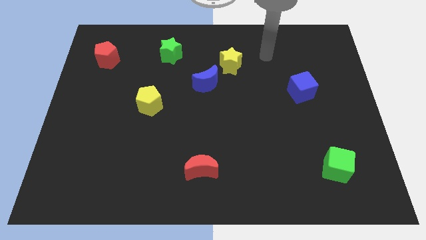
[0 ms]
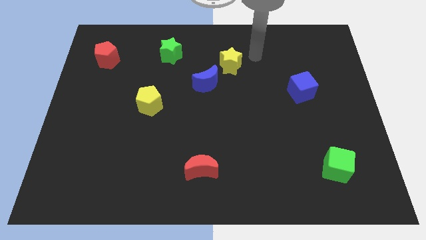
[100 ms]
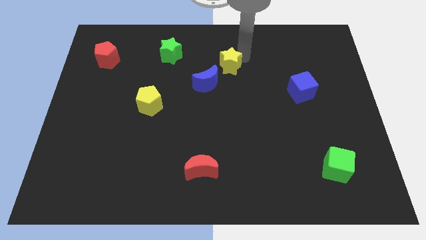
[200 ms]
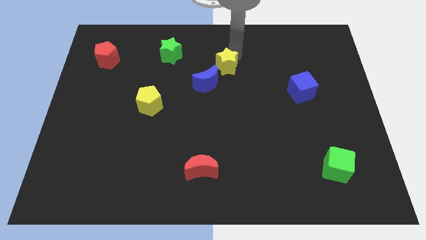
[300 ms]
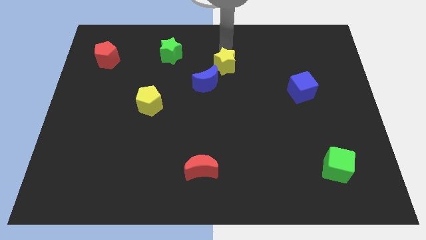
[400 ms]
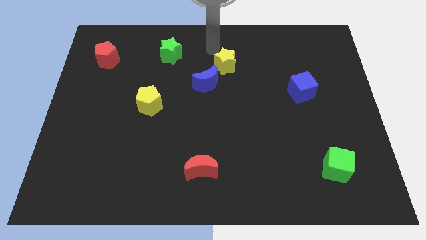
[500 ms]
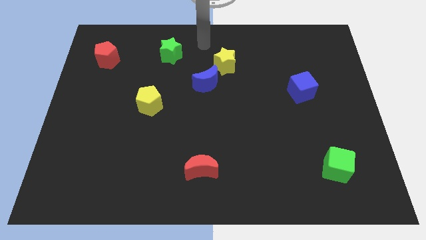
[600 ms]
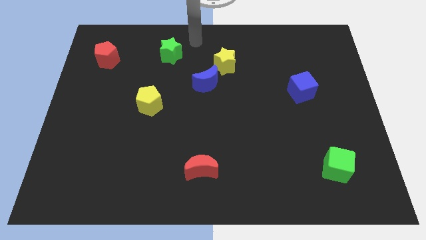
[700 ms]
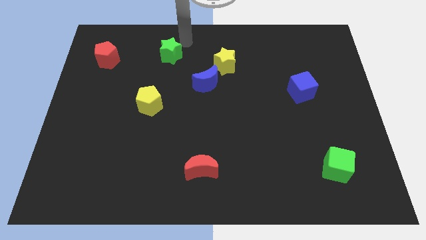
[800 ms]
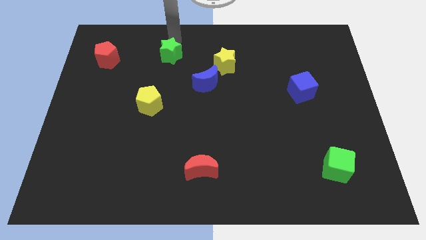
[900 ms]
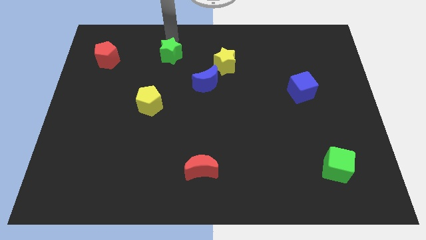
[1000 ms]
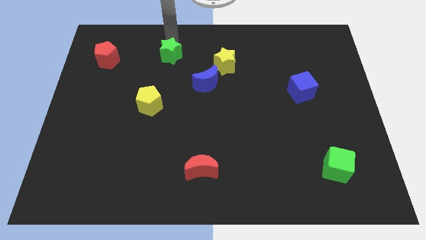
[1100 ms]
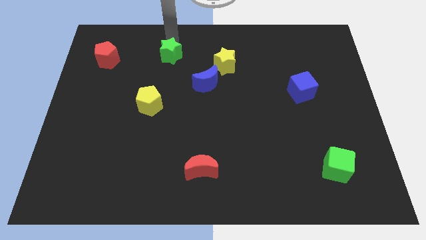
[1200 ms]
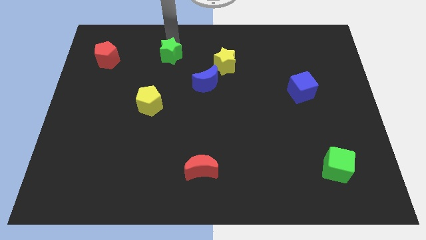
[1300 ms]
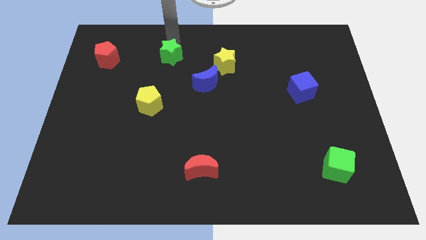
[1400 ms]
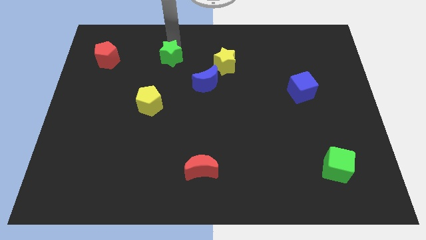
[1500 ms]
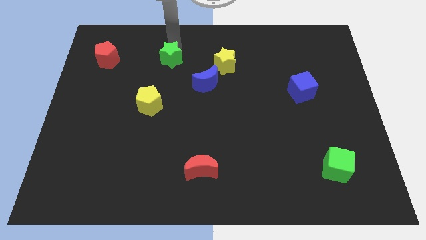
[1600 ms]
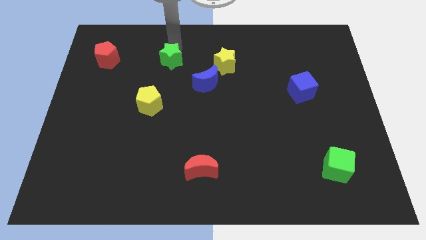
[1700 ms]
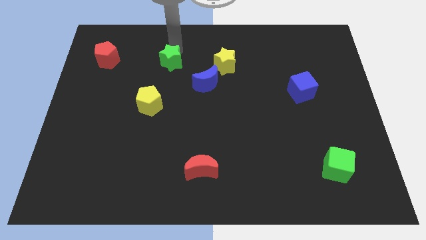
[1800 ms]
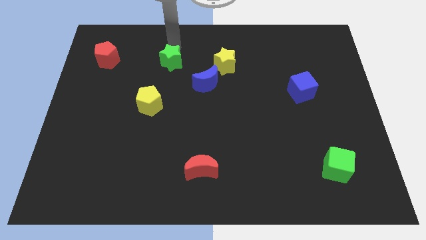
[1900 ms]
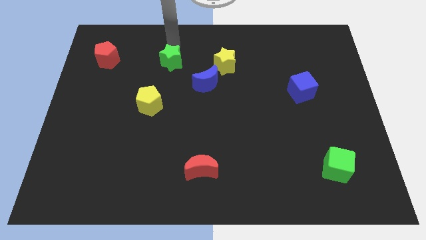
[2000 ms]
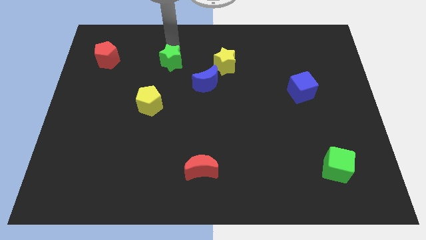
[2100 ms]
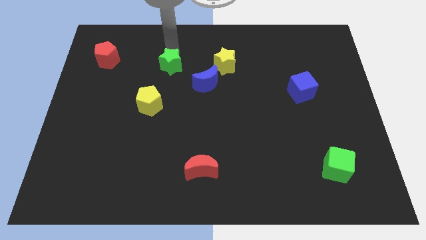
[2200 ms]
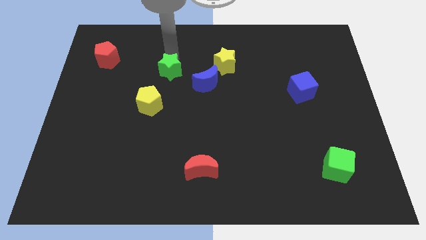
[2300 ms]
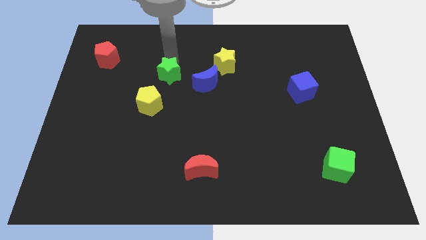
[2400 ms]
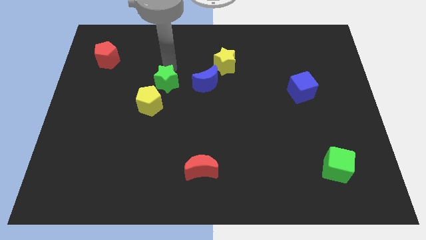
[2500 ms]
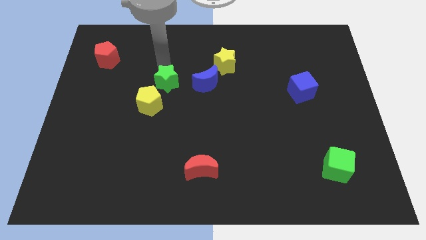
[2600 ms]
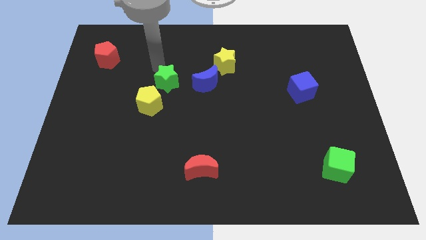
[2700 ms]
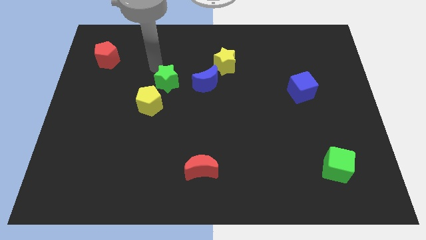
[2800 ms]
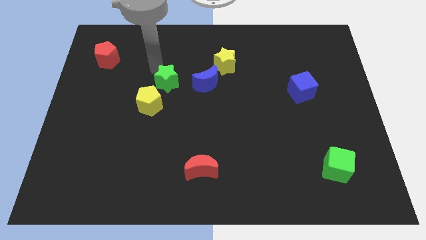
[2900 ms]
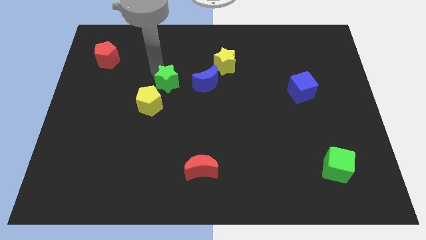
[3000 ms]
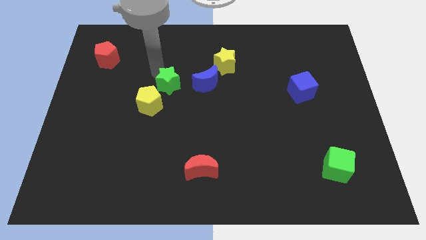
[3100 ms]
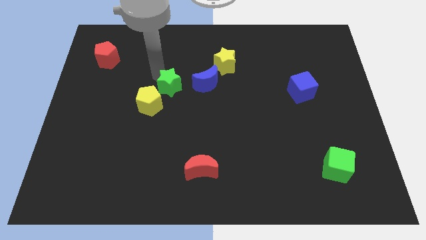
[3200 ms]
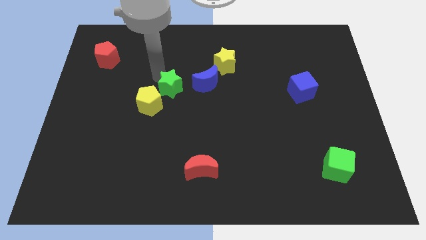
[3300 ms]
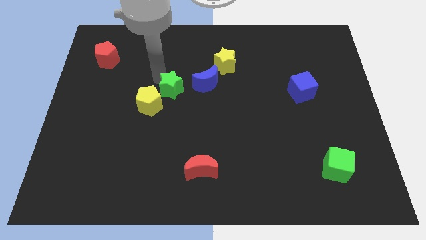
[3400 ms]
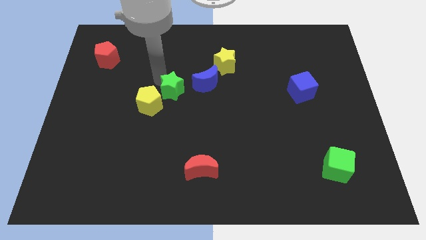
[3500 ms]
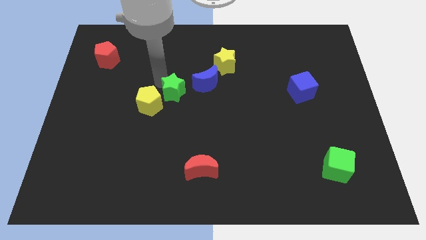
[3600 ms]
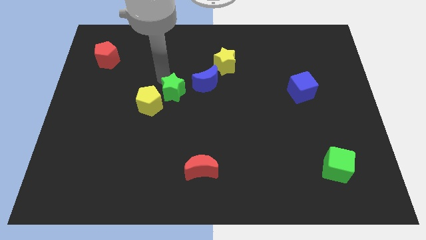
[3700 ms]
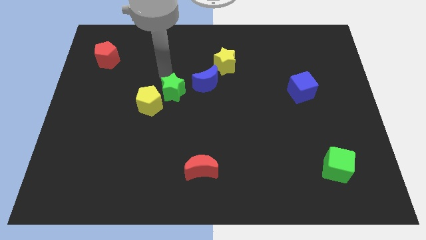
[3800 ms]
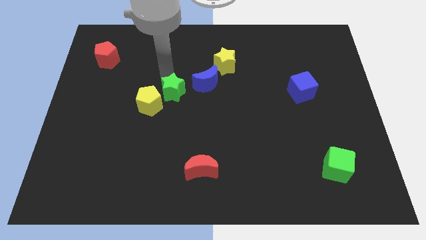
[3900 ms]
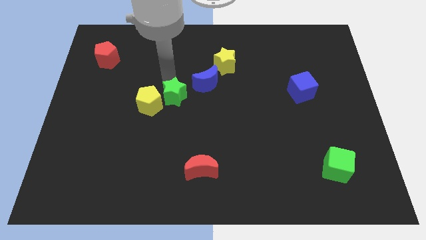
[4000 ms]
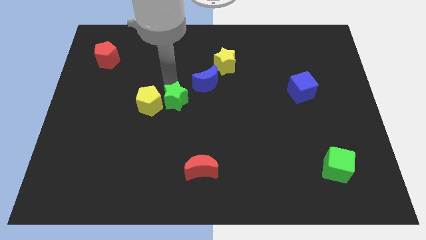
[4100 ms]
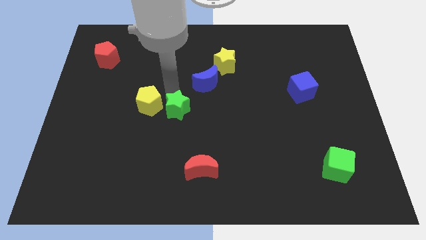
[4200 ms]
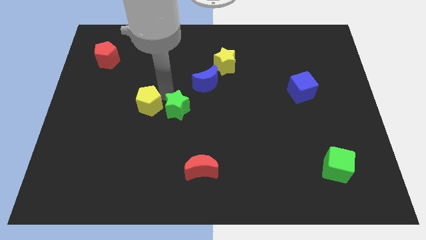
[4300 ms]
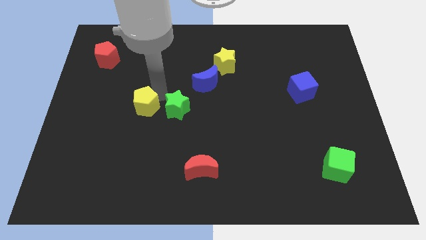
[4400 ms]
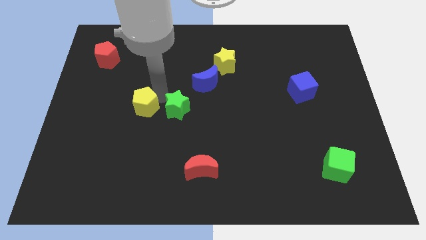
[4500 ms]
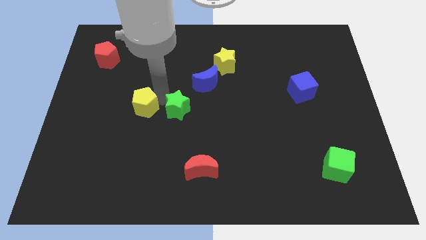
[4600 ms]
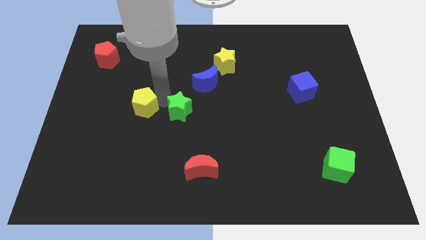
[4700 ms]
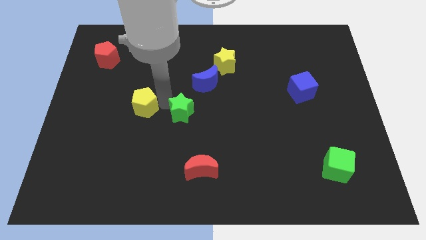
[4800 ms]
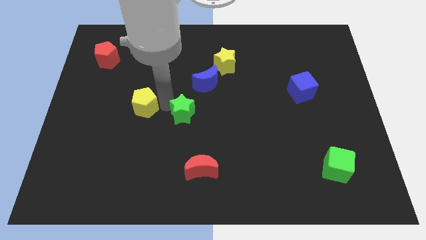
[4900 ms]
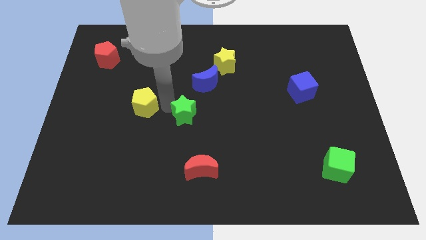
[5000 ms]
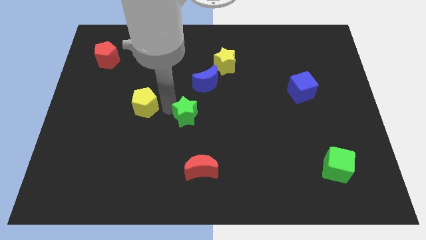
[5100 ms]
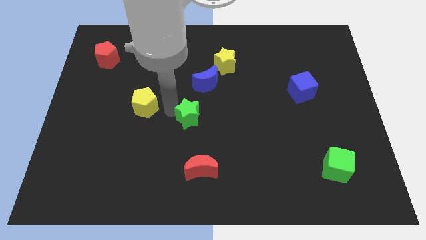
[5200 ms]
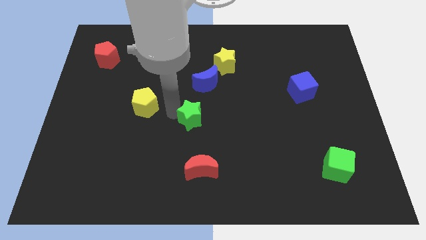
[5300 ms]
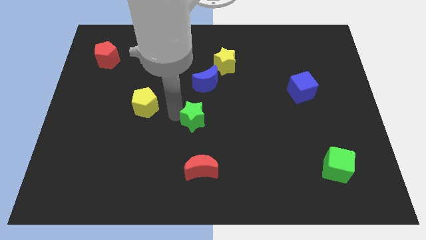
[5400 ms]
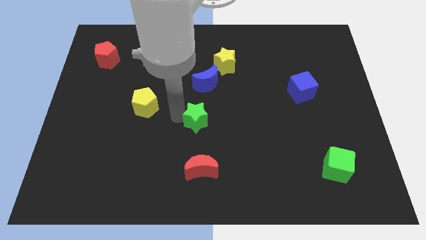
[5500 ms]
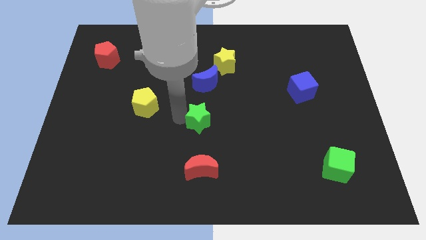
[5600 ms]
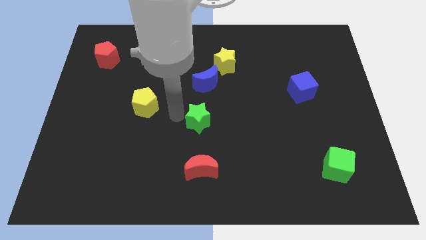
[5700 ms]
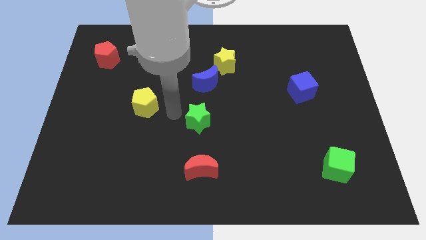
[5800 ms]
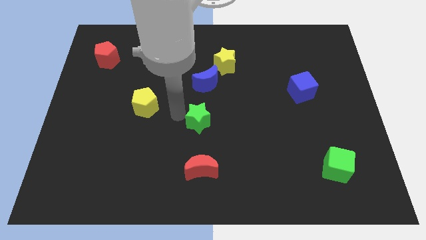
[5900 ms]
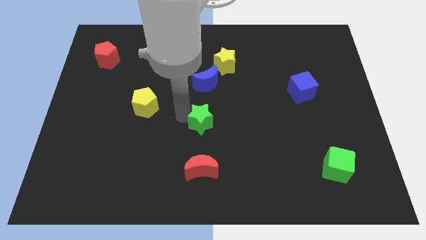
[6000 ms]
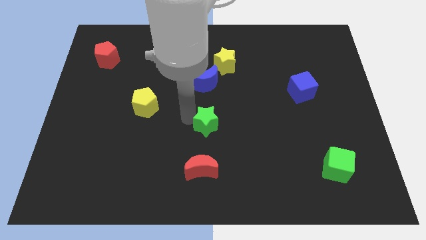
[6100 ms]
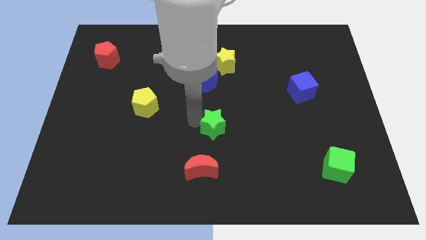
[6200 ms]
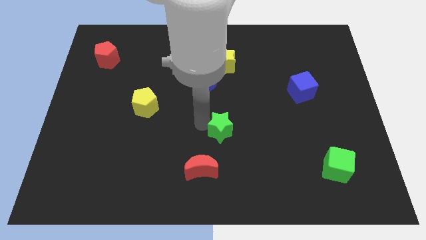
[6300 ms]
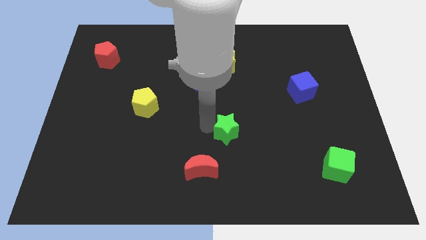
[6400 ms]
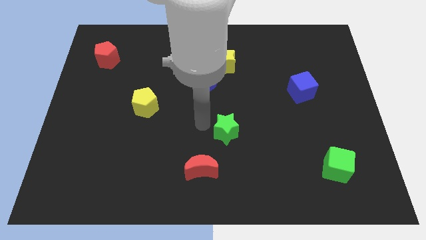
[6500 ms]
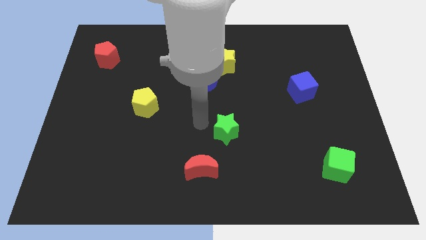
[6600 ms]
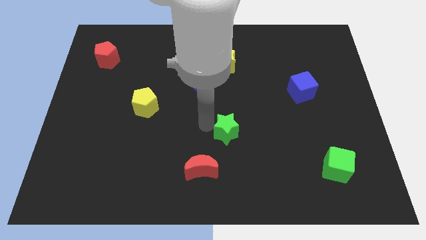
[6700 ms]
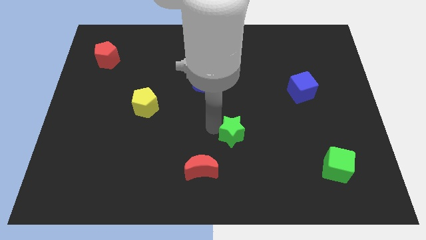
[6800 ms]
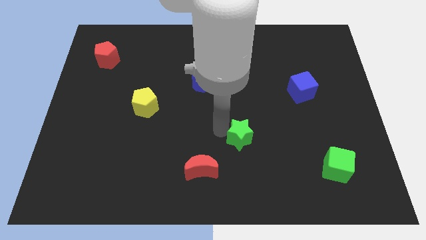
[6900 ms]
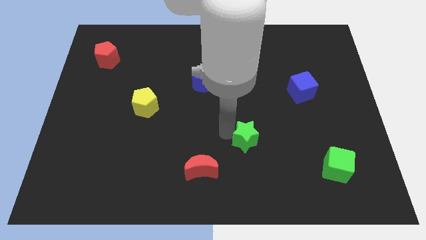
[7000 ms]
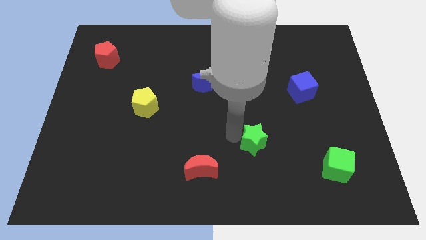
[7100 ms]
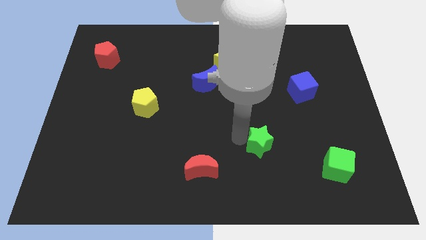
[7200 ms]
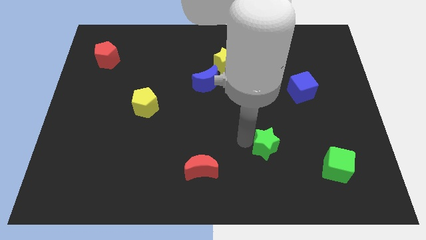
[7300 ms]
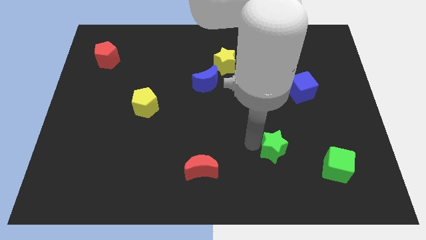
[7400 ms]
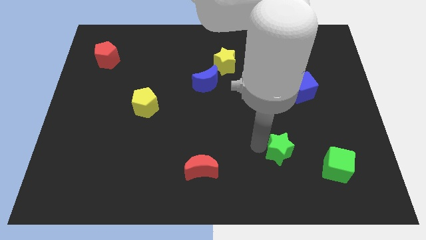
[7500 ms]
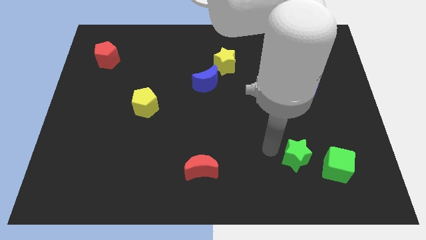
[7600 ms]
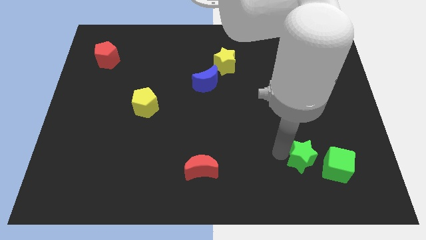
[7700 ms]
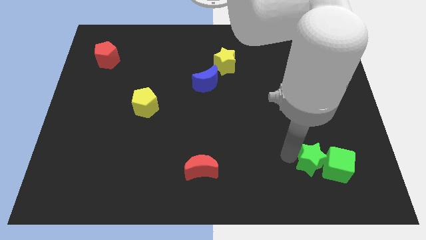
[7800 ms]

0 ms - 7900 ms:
slide the green star close to the green cube

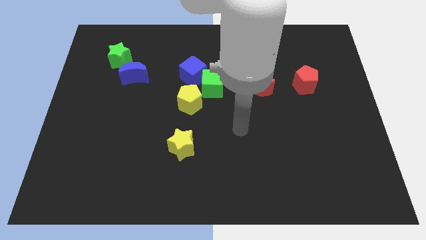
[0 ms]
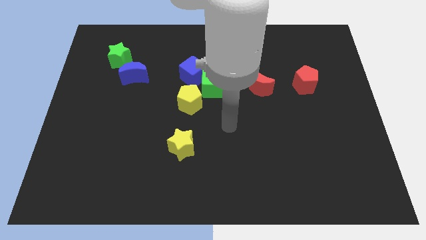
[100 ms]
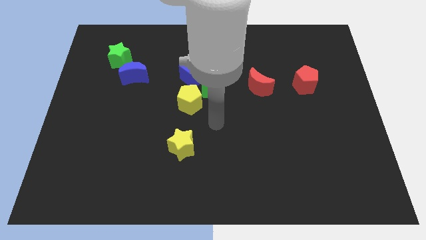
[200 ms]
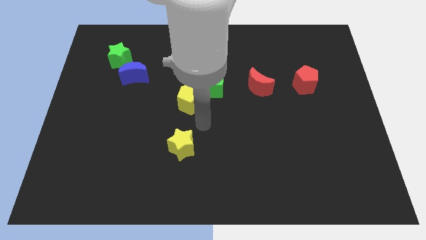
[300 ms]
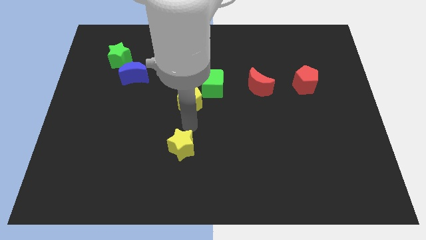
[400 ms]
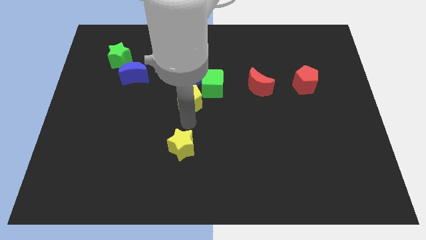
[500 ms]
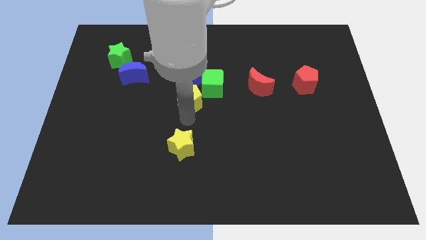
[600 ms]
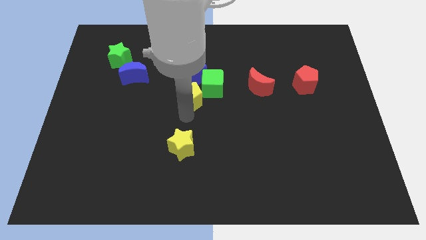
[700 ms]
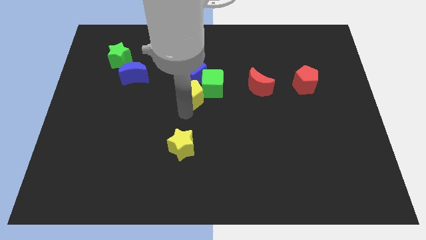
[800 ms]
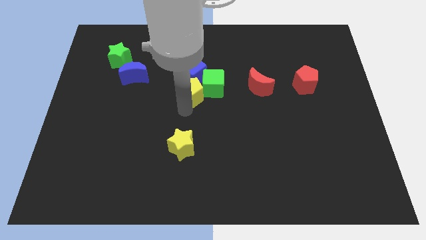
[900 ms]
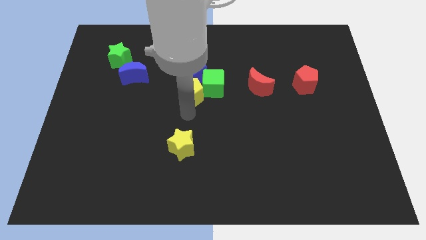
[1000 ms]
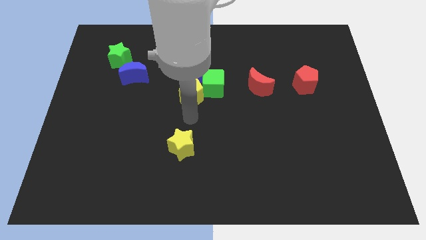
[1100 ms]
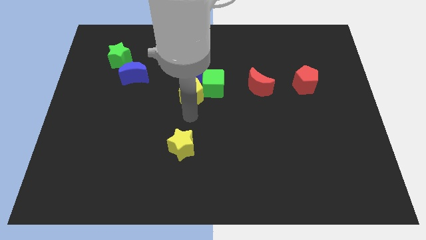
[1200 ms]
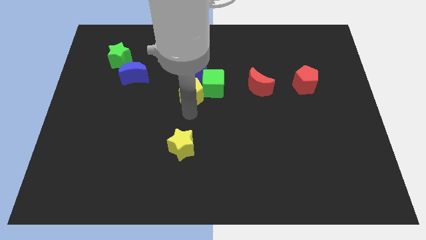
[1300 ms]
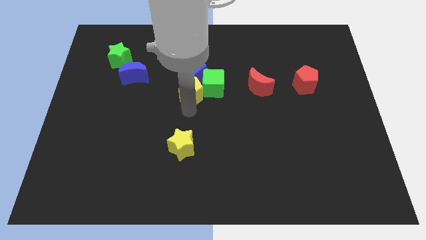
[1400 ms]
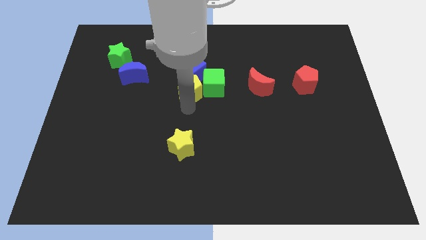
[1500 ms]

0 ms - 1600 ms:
slide the yellow pentagon to the blue cube
